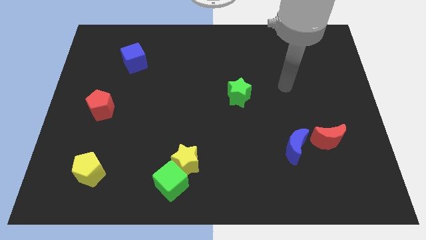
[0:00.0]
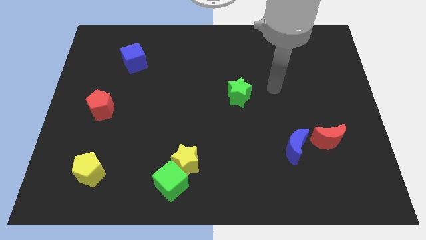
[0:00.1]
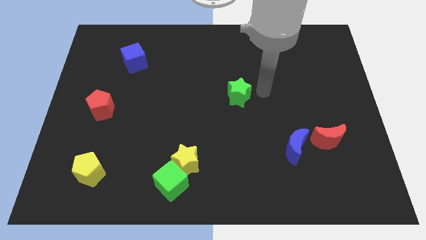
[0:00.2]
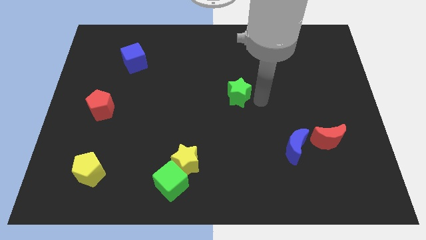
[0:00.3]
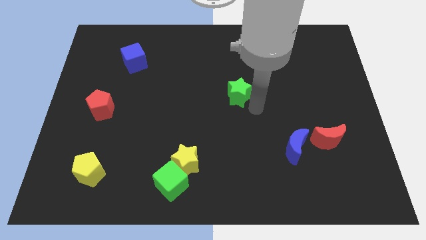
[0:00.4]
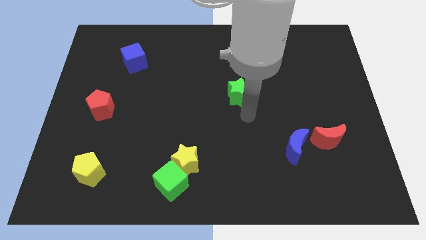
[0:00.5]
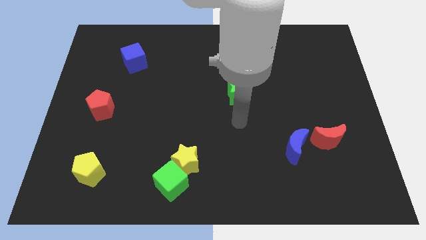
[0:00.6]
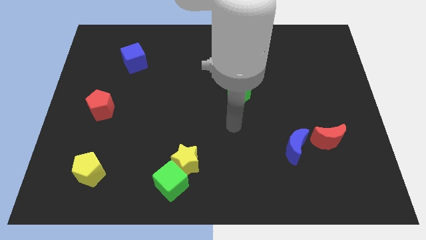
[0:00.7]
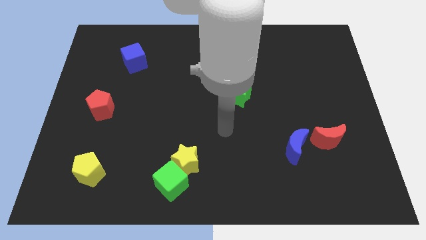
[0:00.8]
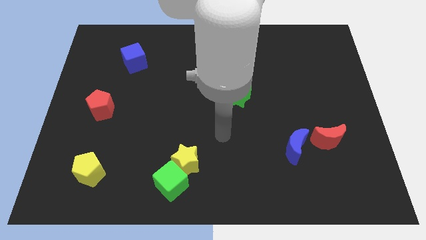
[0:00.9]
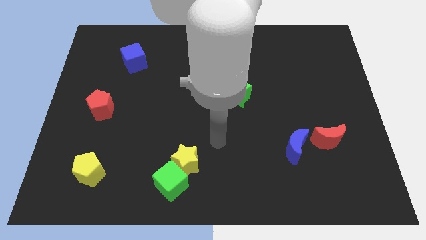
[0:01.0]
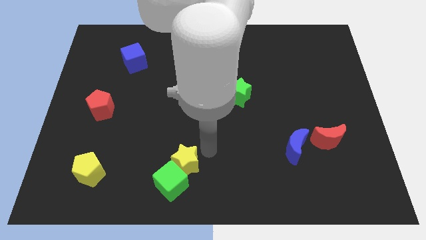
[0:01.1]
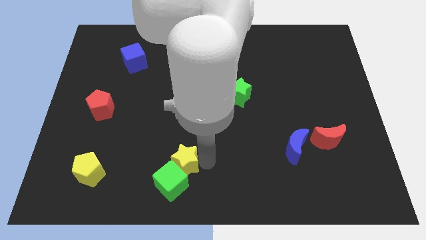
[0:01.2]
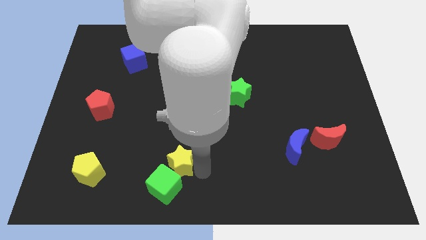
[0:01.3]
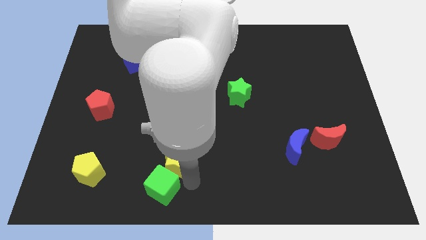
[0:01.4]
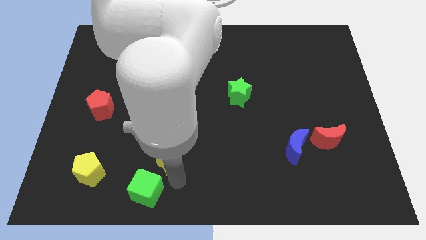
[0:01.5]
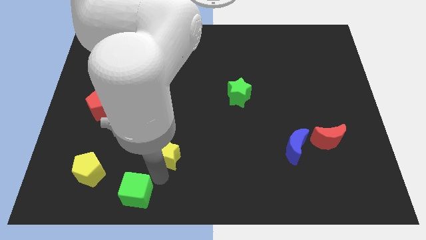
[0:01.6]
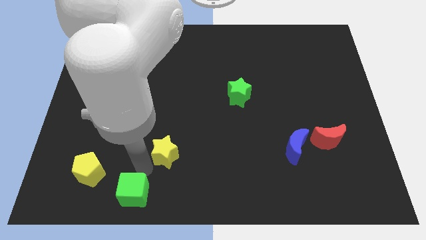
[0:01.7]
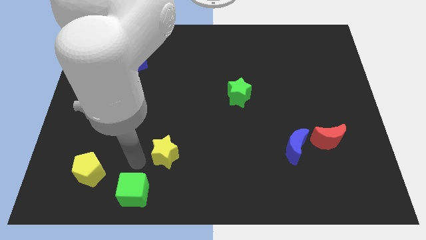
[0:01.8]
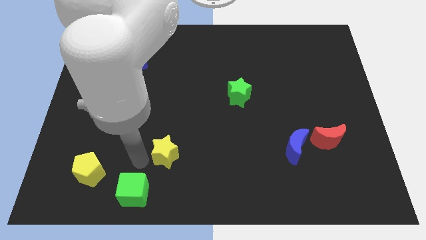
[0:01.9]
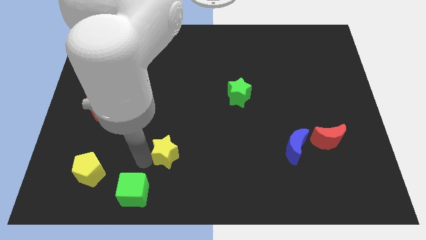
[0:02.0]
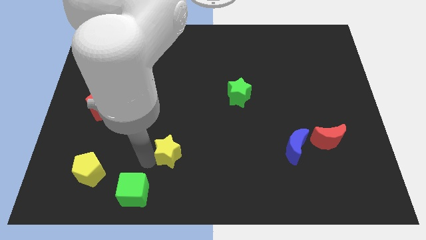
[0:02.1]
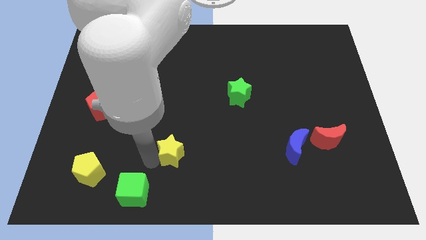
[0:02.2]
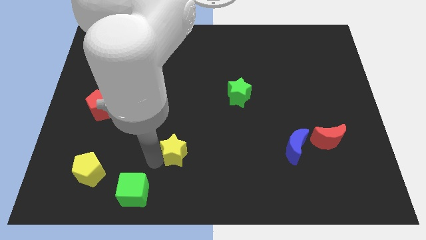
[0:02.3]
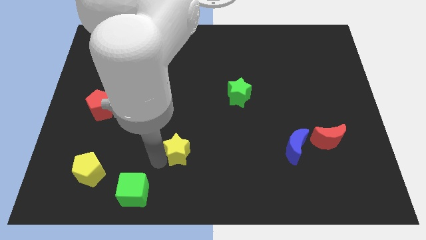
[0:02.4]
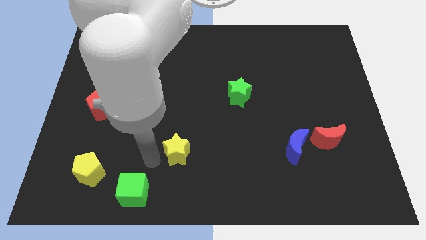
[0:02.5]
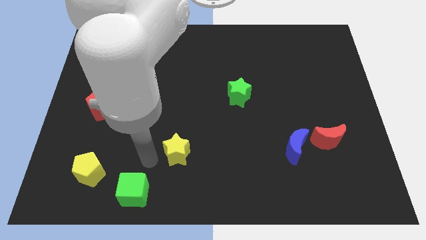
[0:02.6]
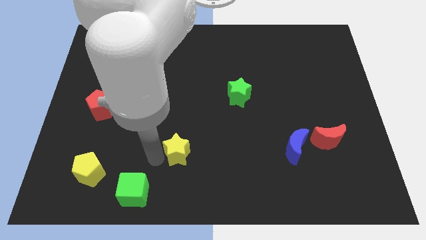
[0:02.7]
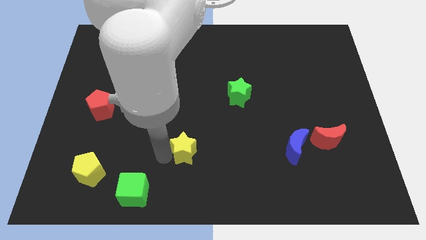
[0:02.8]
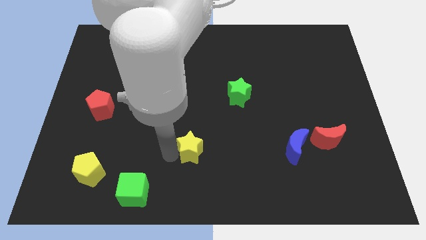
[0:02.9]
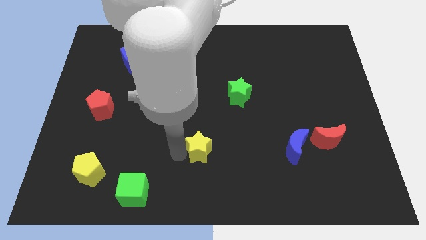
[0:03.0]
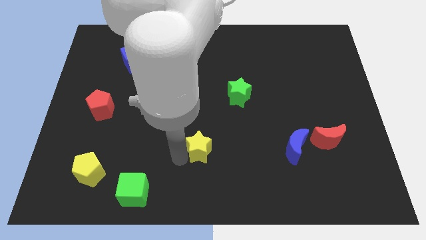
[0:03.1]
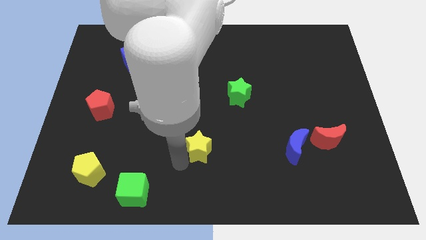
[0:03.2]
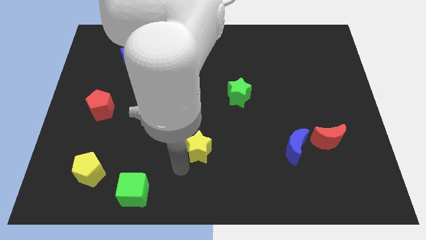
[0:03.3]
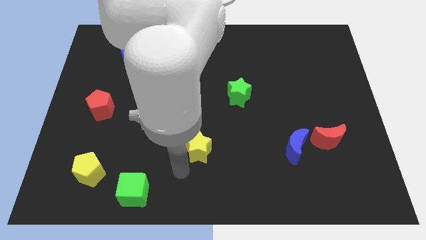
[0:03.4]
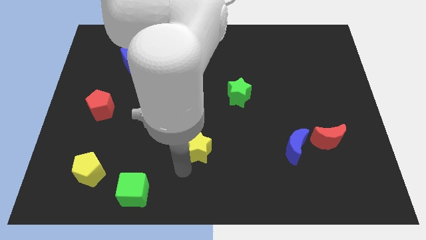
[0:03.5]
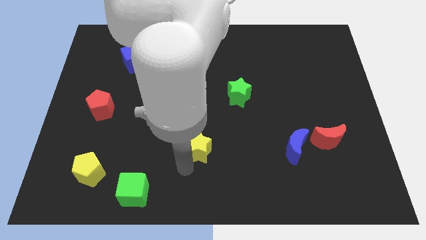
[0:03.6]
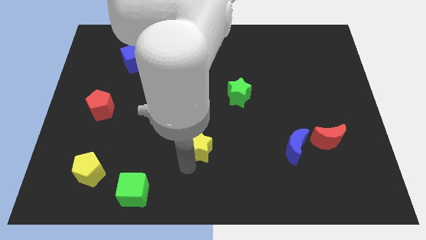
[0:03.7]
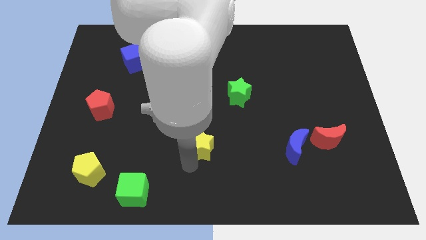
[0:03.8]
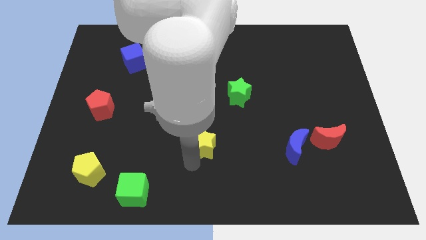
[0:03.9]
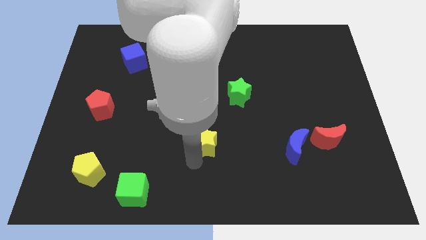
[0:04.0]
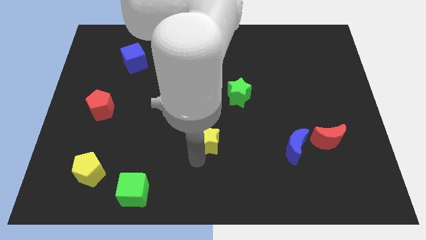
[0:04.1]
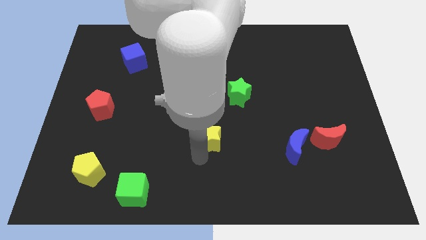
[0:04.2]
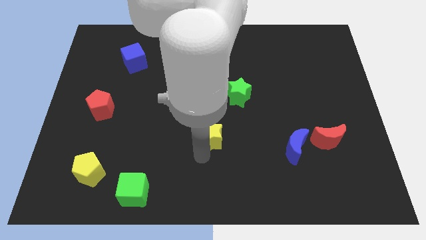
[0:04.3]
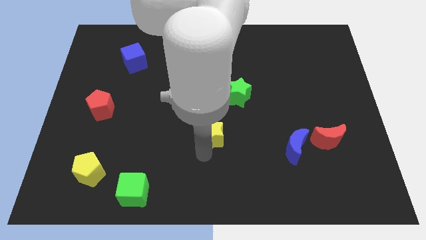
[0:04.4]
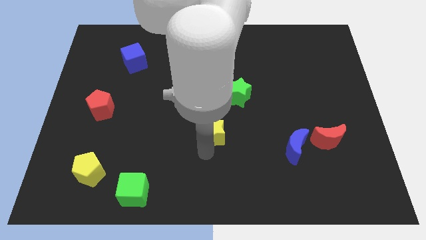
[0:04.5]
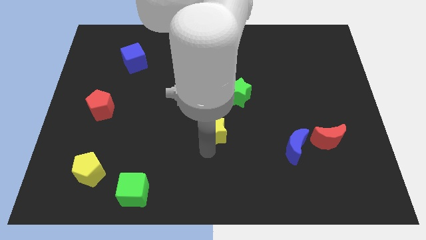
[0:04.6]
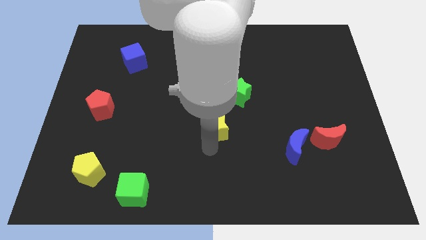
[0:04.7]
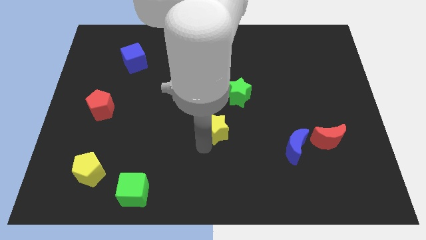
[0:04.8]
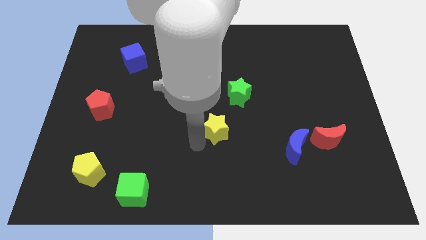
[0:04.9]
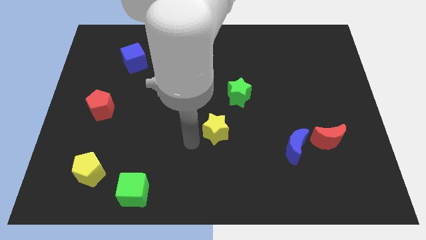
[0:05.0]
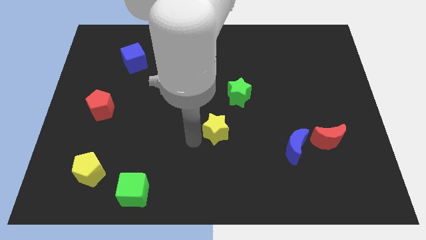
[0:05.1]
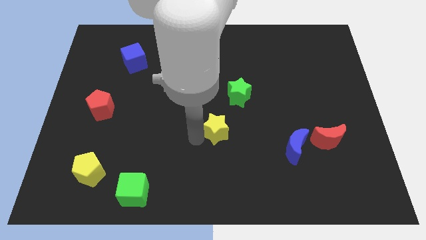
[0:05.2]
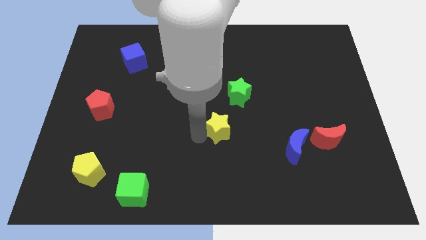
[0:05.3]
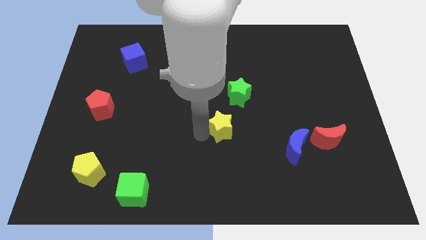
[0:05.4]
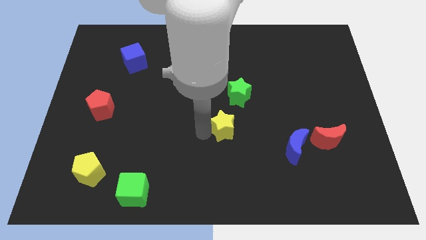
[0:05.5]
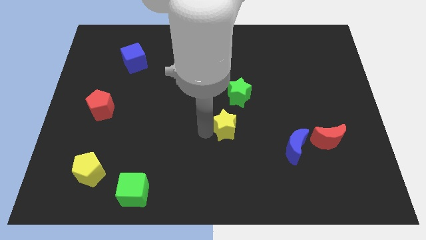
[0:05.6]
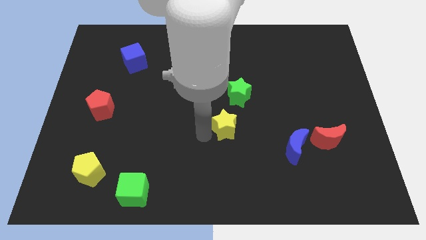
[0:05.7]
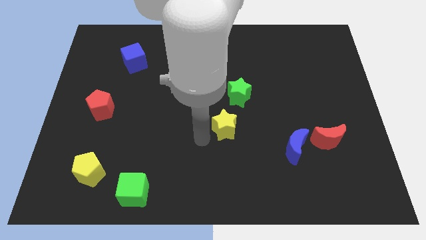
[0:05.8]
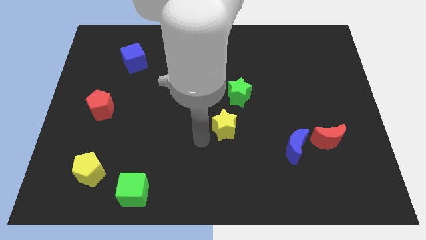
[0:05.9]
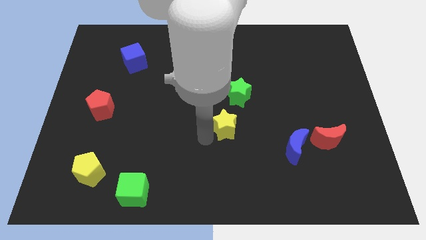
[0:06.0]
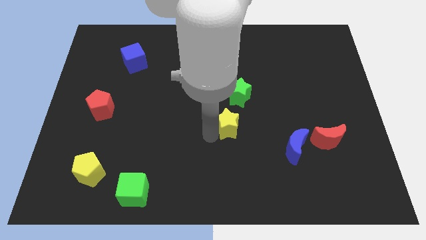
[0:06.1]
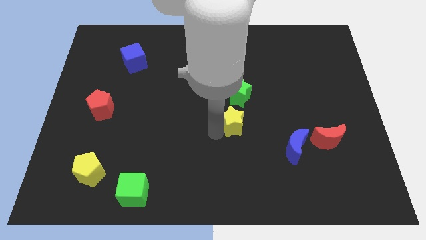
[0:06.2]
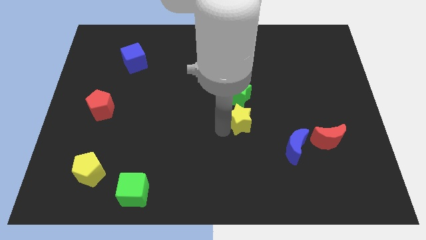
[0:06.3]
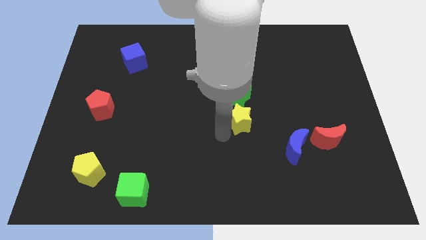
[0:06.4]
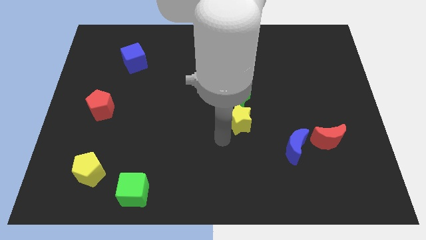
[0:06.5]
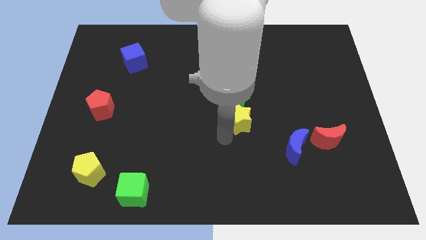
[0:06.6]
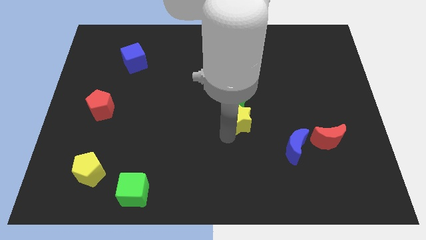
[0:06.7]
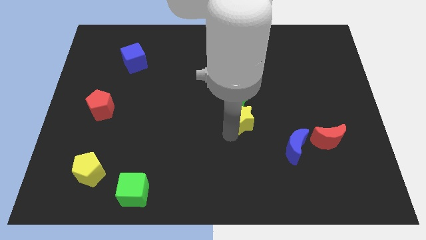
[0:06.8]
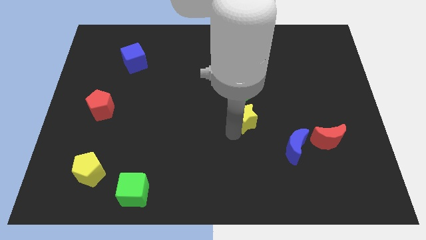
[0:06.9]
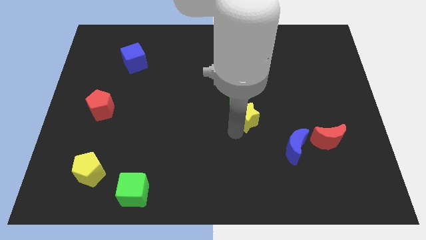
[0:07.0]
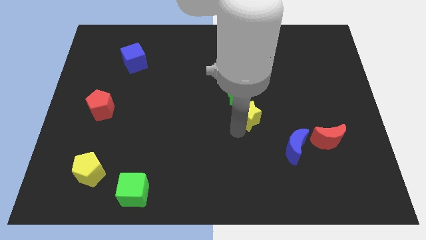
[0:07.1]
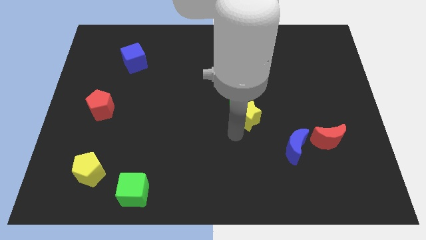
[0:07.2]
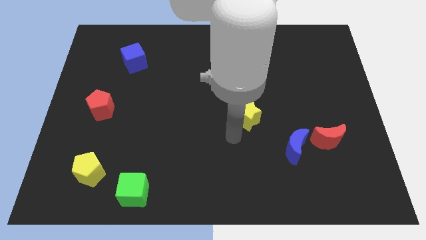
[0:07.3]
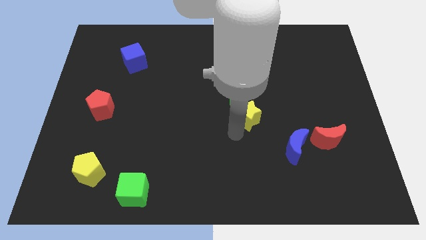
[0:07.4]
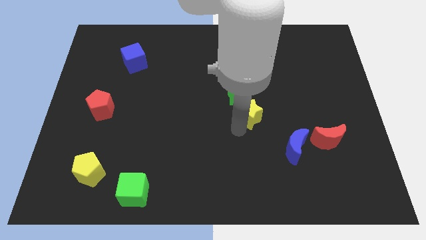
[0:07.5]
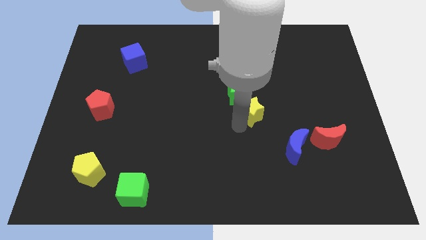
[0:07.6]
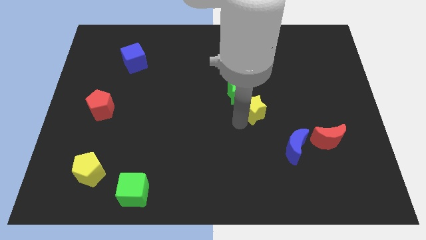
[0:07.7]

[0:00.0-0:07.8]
push the yellow star upwards and right

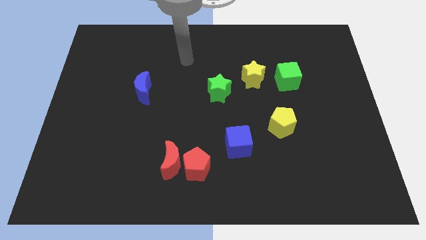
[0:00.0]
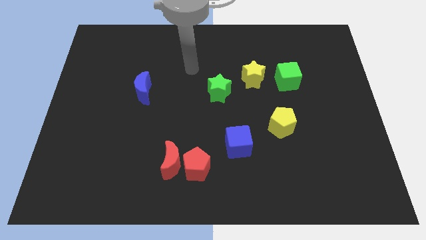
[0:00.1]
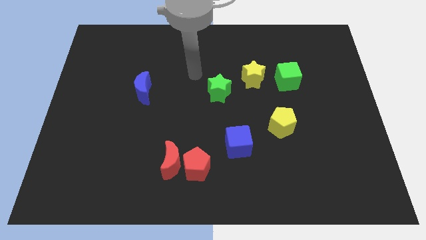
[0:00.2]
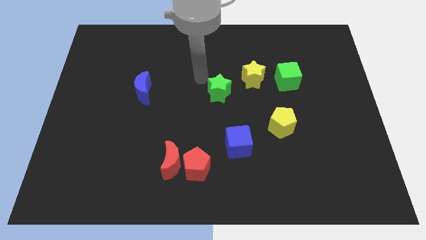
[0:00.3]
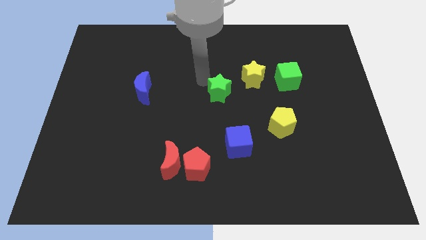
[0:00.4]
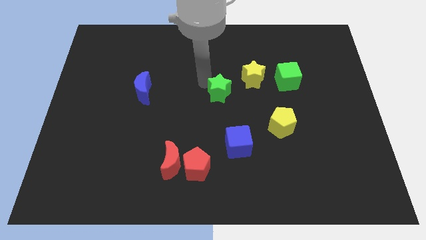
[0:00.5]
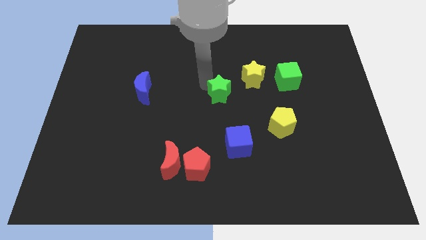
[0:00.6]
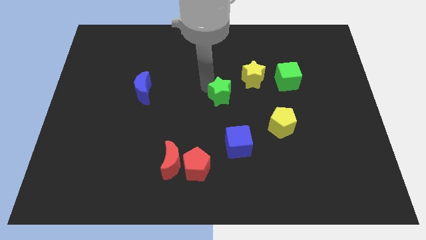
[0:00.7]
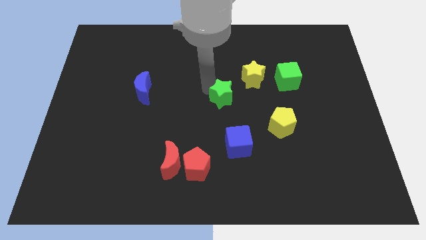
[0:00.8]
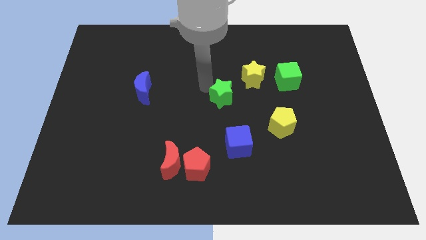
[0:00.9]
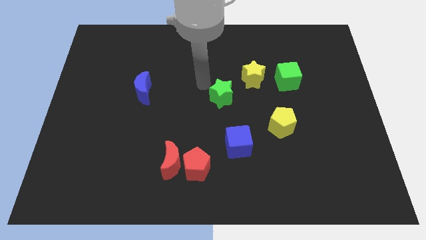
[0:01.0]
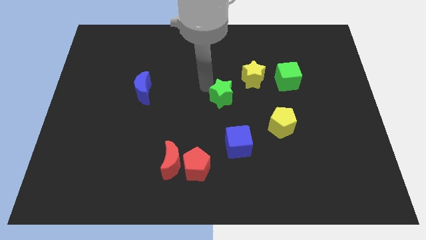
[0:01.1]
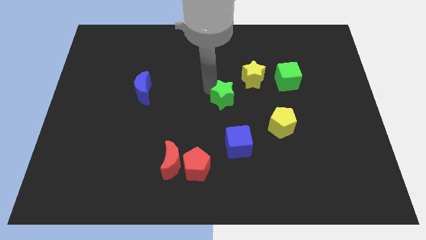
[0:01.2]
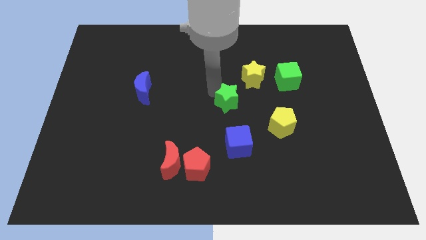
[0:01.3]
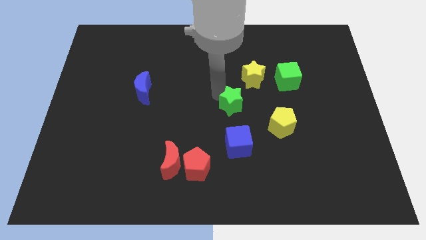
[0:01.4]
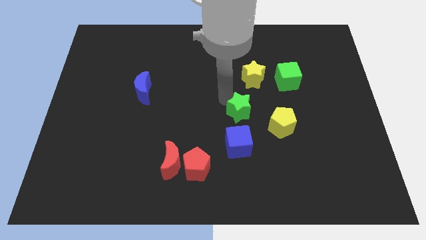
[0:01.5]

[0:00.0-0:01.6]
move the green star downwards and right a bit
